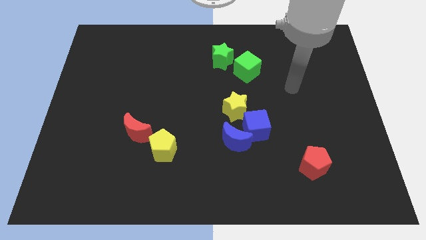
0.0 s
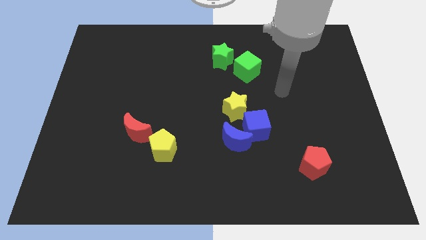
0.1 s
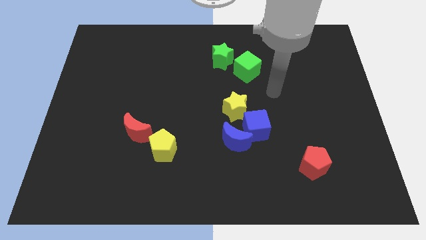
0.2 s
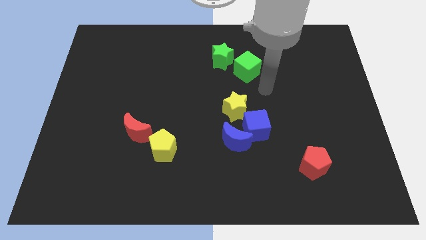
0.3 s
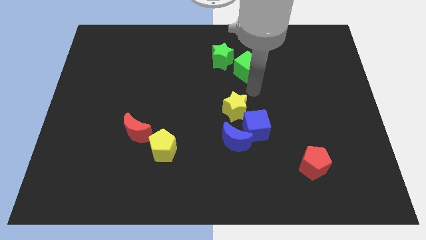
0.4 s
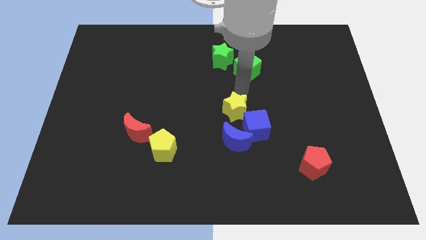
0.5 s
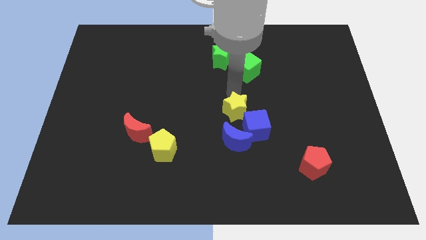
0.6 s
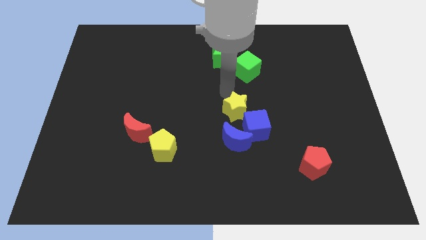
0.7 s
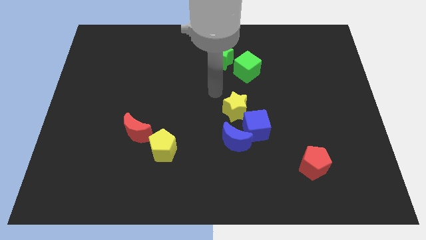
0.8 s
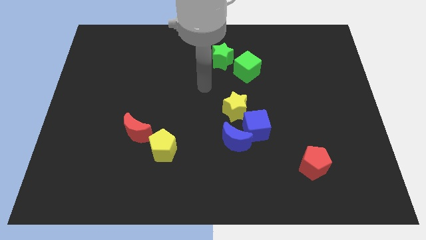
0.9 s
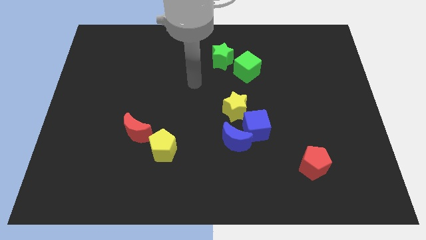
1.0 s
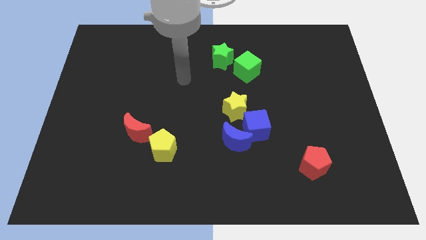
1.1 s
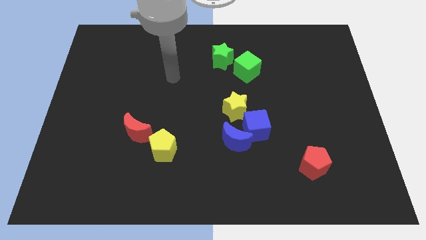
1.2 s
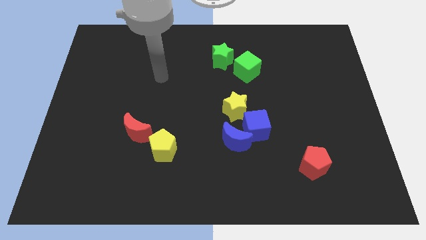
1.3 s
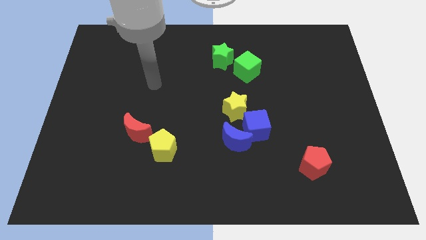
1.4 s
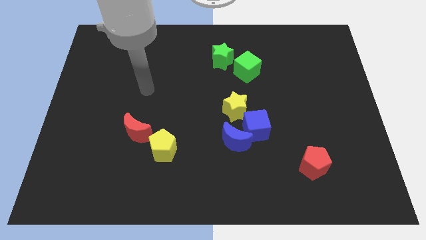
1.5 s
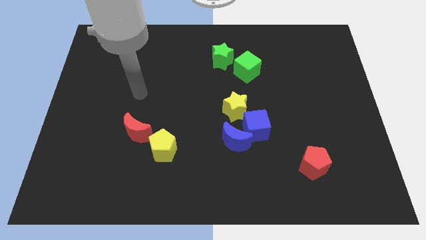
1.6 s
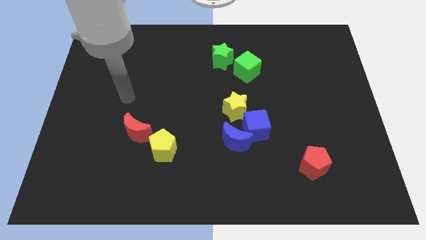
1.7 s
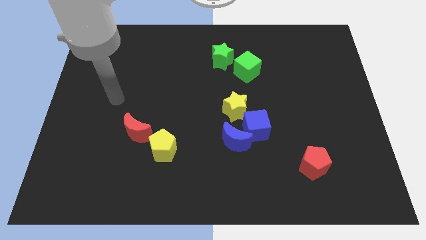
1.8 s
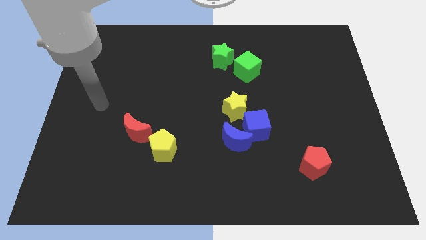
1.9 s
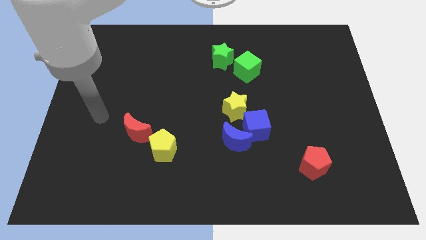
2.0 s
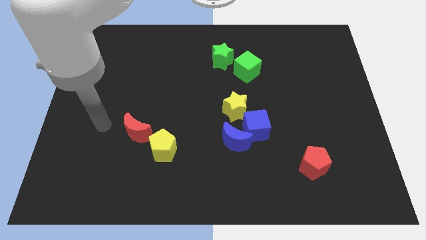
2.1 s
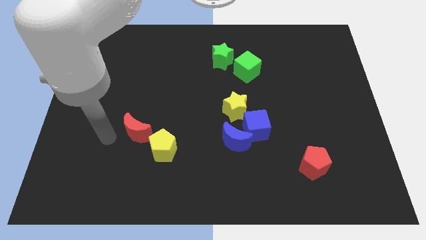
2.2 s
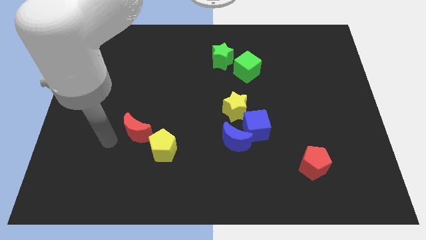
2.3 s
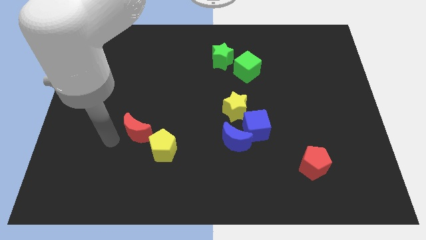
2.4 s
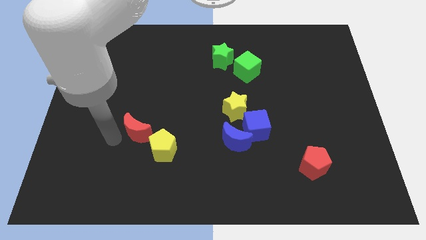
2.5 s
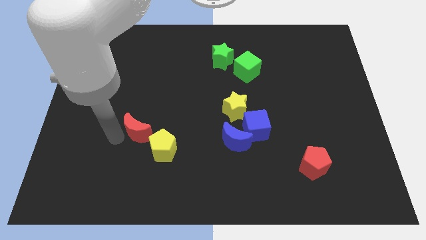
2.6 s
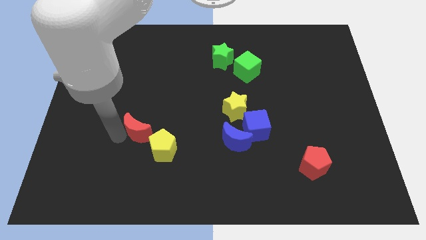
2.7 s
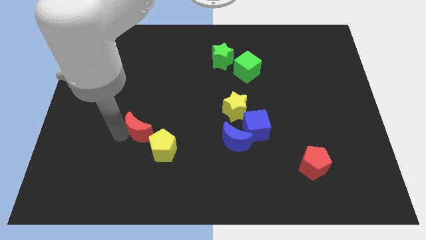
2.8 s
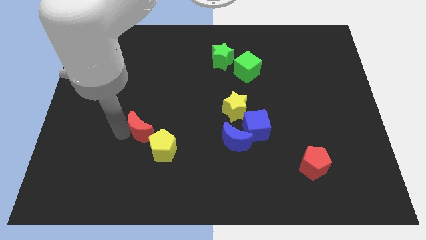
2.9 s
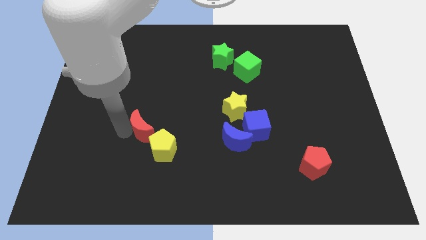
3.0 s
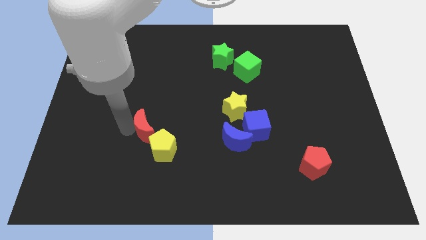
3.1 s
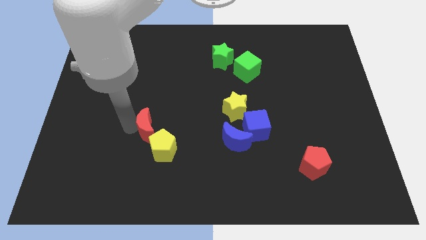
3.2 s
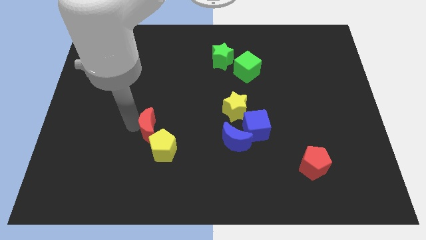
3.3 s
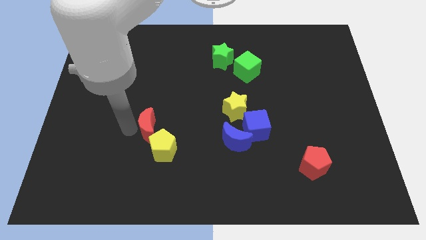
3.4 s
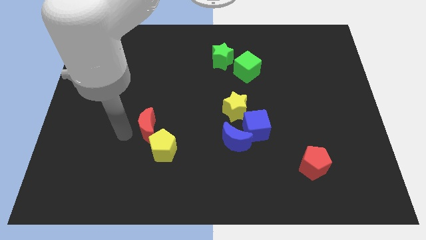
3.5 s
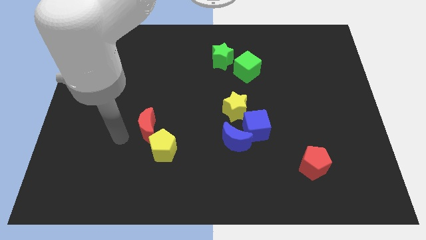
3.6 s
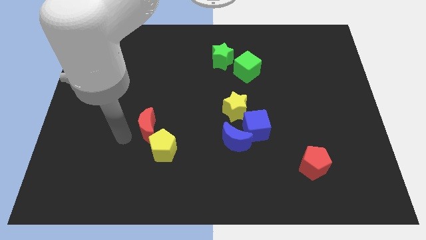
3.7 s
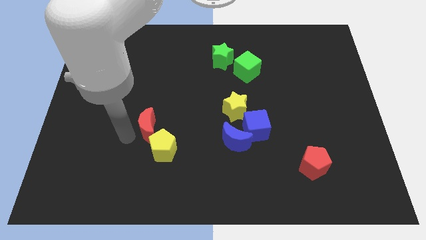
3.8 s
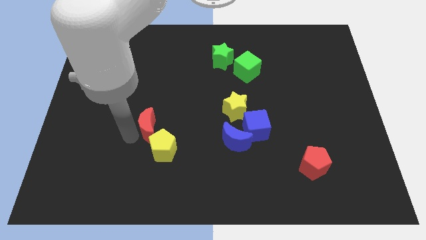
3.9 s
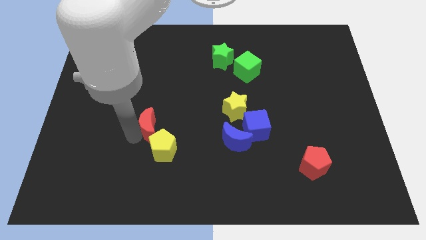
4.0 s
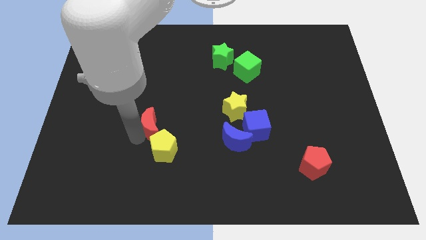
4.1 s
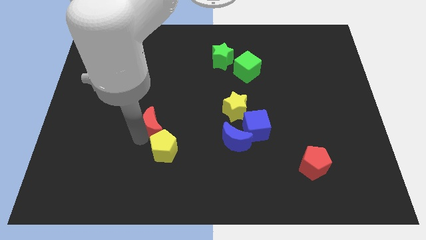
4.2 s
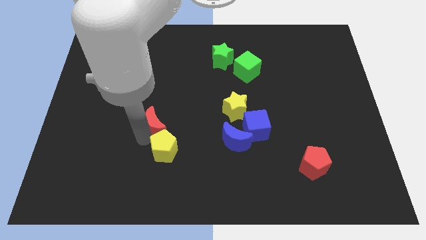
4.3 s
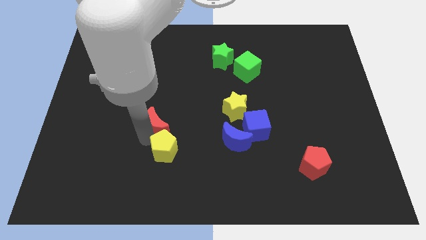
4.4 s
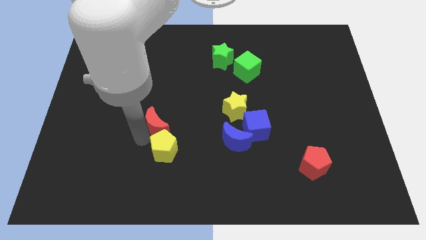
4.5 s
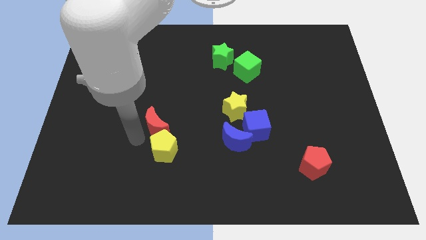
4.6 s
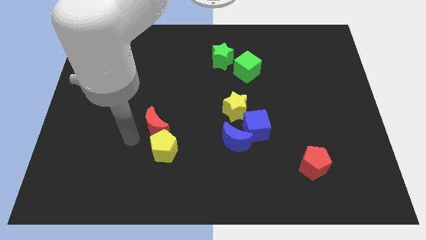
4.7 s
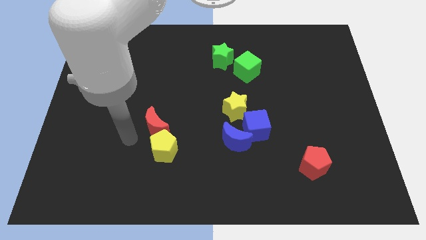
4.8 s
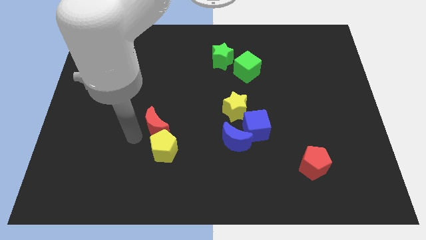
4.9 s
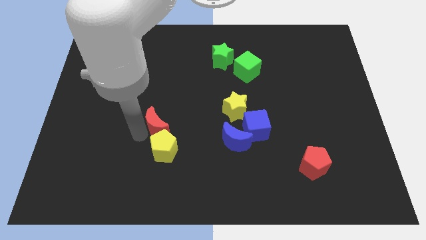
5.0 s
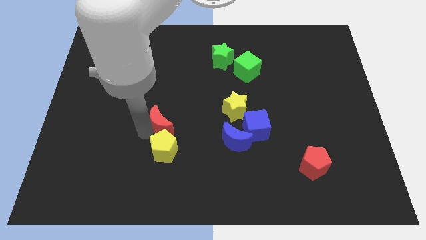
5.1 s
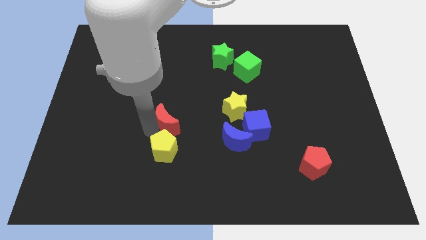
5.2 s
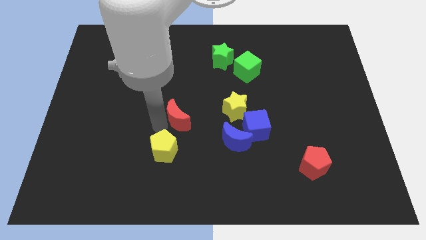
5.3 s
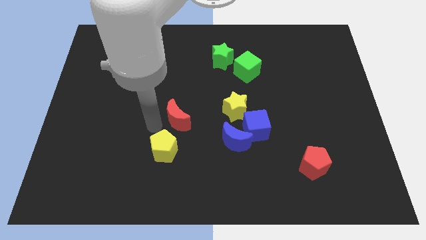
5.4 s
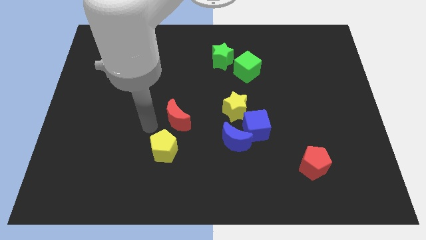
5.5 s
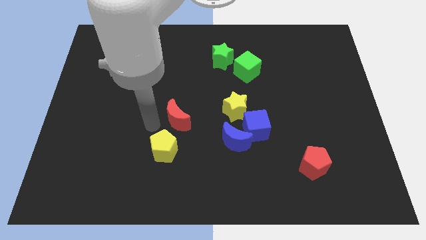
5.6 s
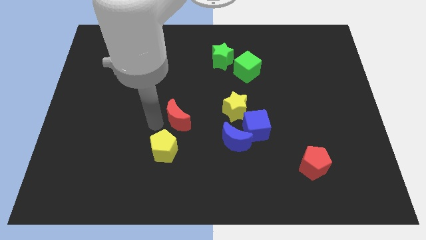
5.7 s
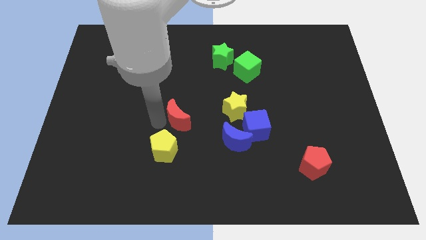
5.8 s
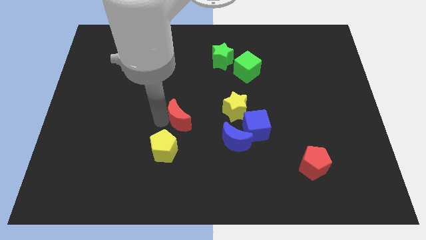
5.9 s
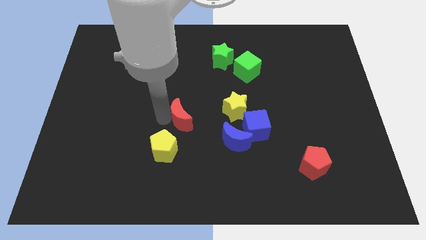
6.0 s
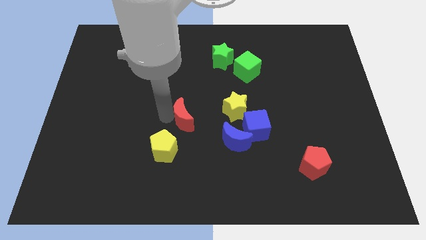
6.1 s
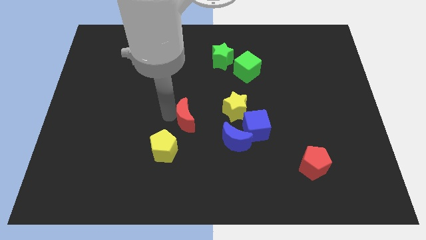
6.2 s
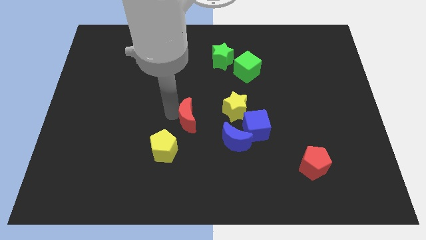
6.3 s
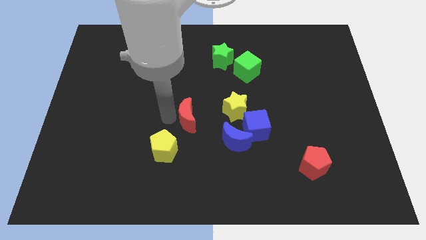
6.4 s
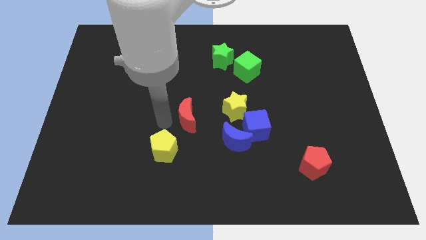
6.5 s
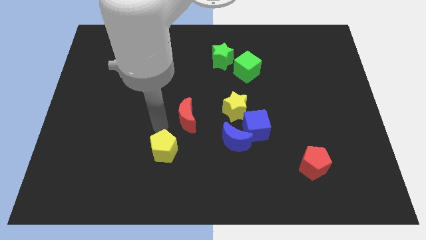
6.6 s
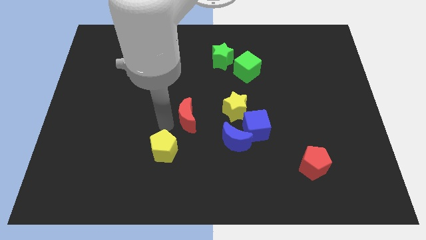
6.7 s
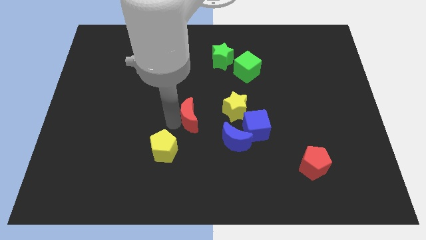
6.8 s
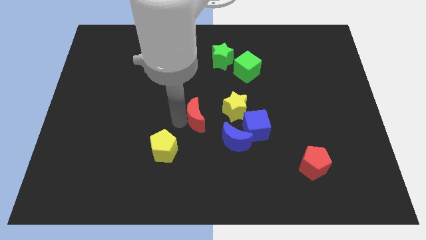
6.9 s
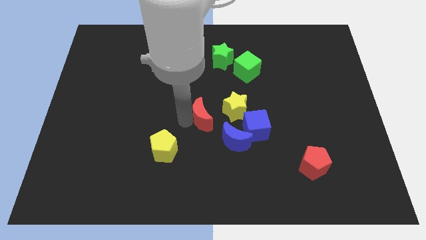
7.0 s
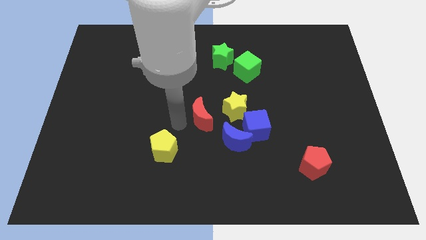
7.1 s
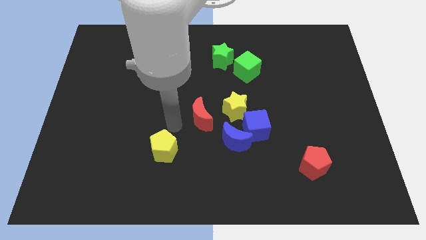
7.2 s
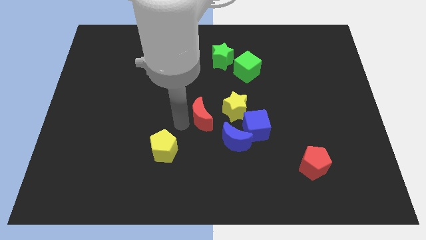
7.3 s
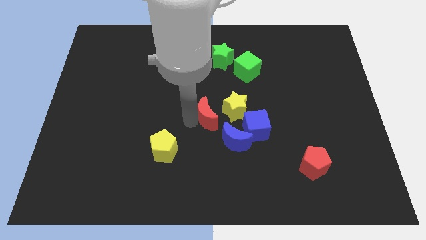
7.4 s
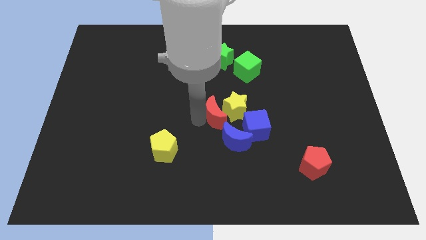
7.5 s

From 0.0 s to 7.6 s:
move the red moon towards the yellow star
